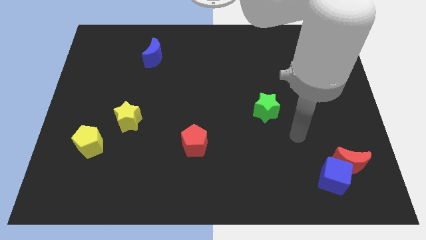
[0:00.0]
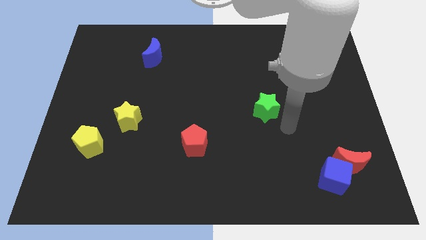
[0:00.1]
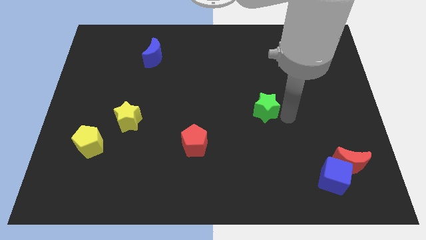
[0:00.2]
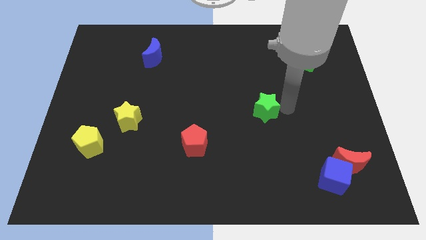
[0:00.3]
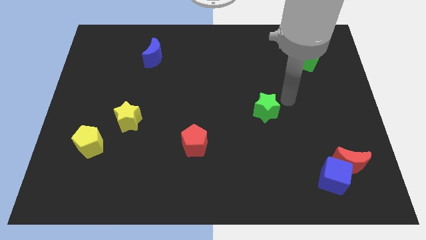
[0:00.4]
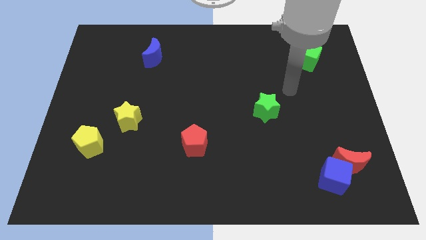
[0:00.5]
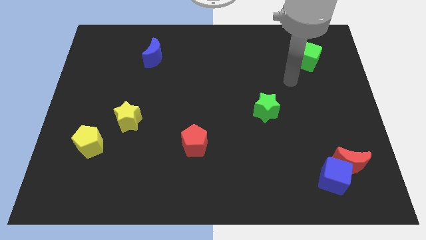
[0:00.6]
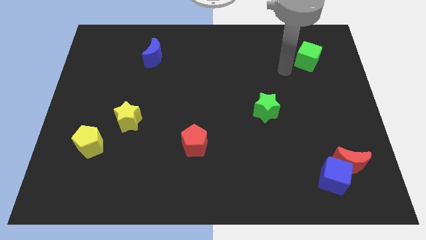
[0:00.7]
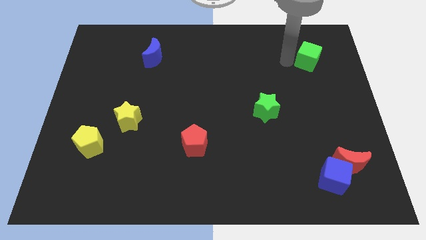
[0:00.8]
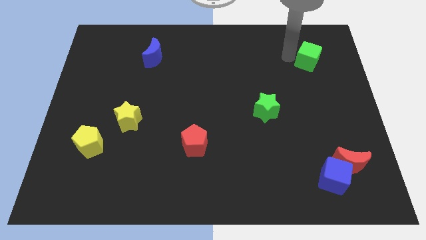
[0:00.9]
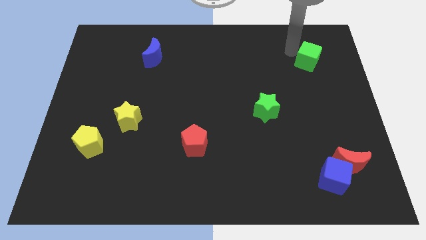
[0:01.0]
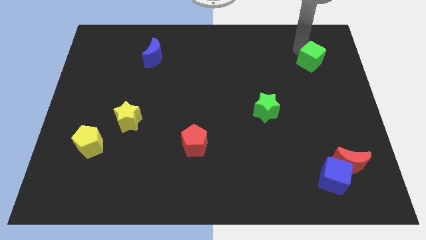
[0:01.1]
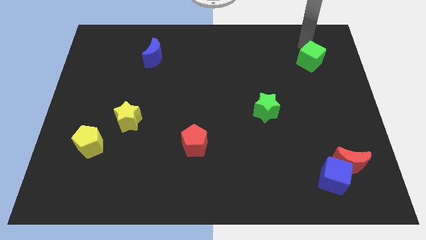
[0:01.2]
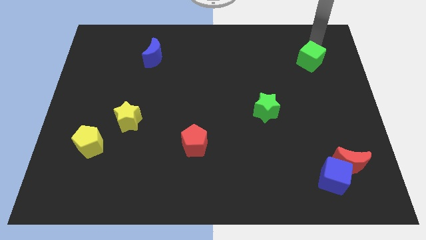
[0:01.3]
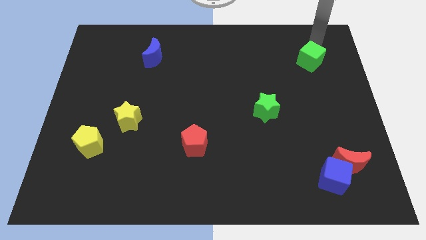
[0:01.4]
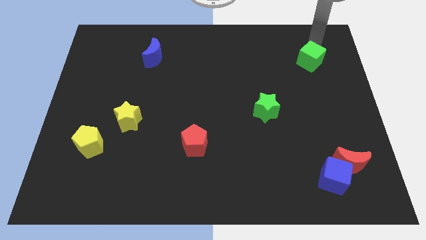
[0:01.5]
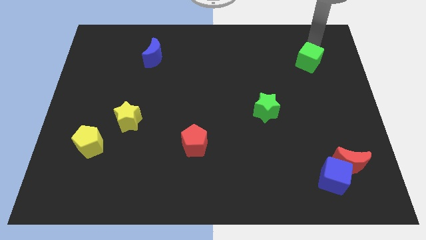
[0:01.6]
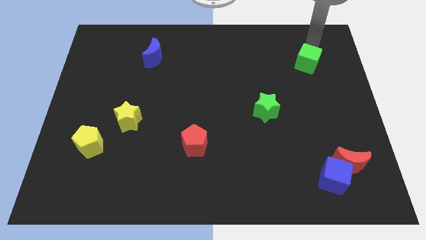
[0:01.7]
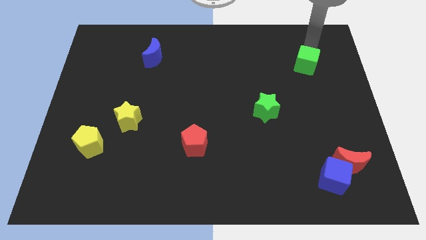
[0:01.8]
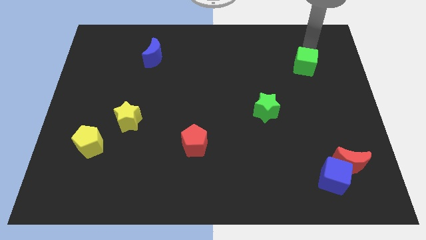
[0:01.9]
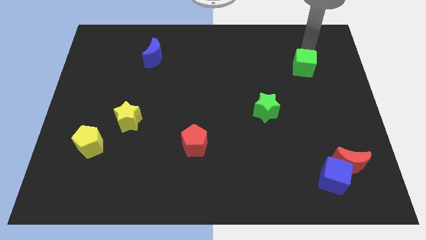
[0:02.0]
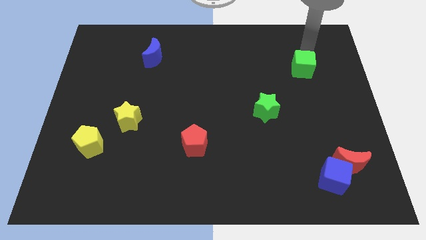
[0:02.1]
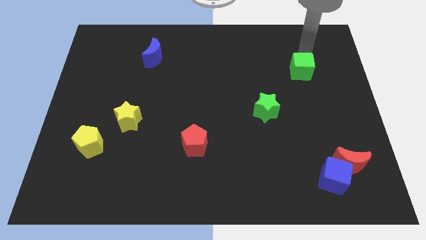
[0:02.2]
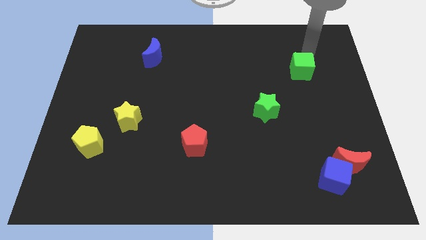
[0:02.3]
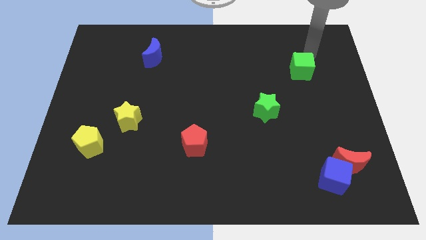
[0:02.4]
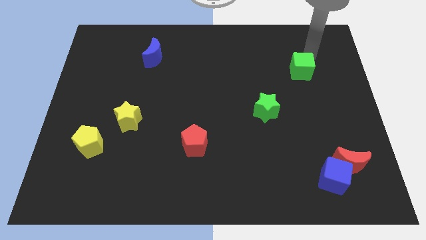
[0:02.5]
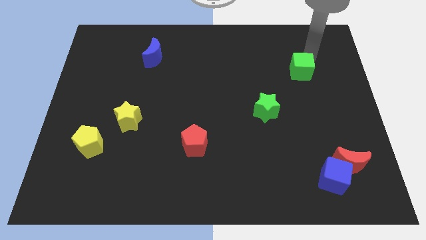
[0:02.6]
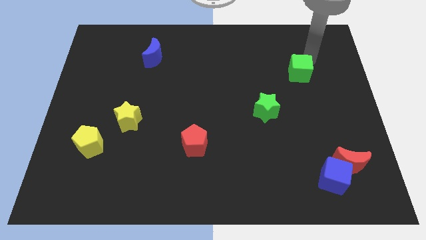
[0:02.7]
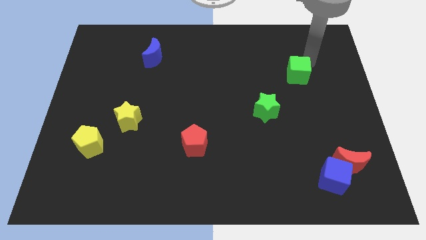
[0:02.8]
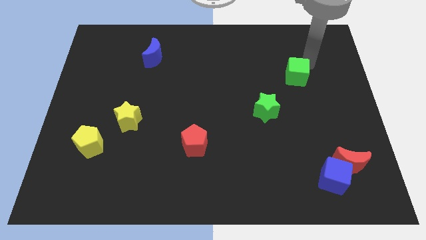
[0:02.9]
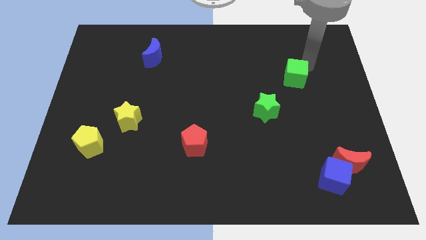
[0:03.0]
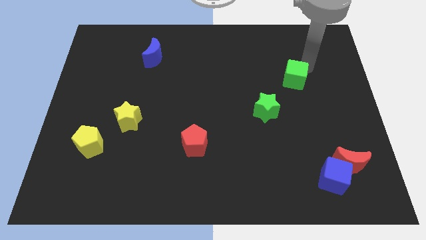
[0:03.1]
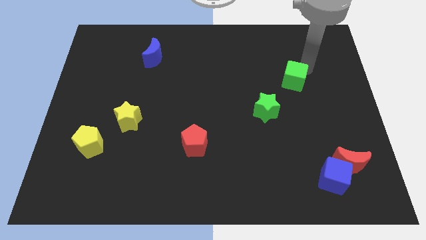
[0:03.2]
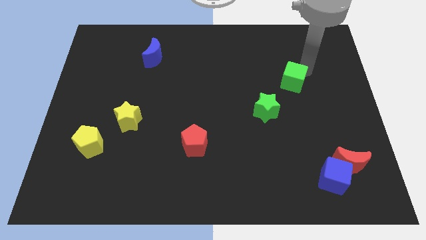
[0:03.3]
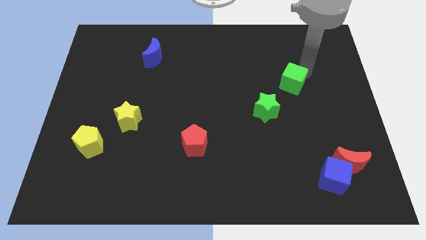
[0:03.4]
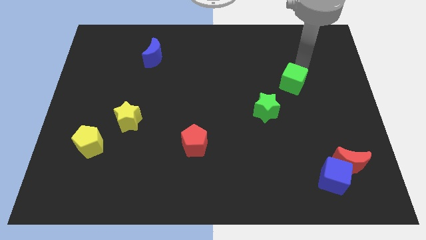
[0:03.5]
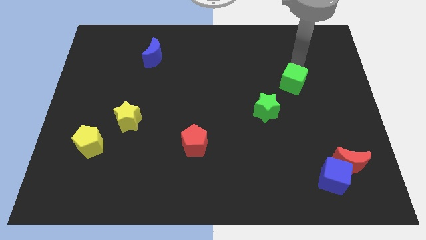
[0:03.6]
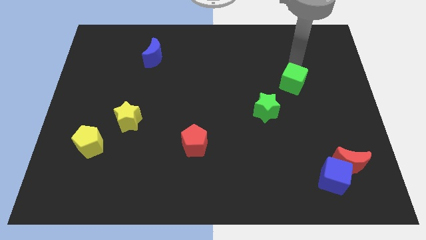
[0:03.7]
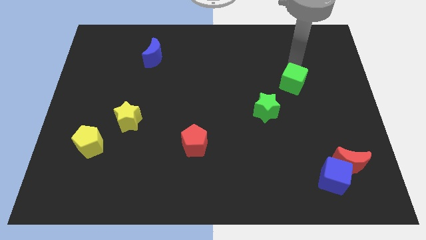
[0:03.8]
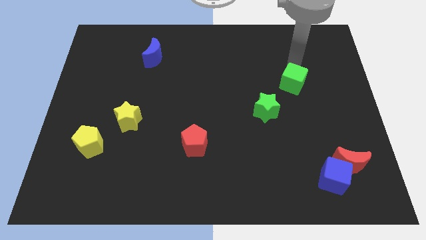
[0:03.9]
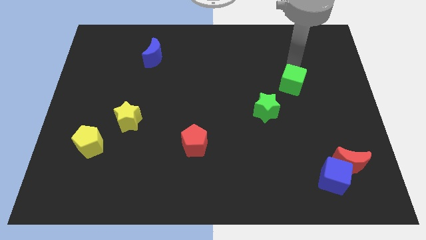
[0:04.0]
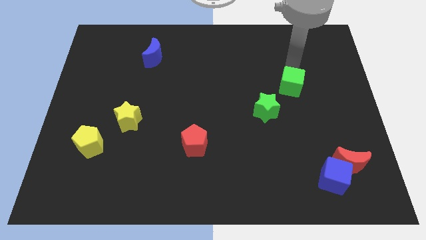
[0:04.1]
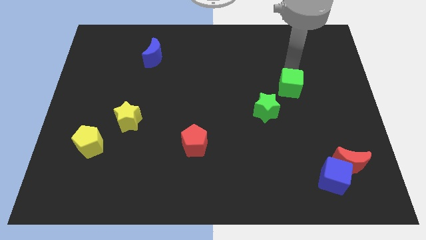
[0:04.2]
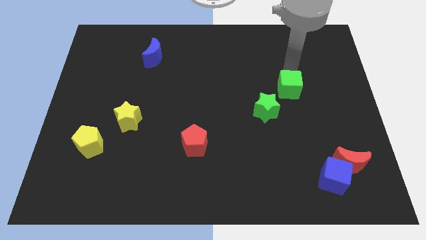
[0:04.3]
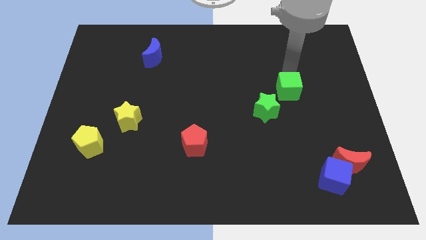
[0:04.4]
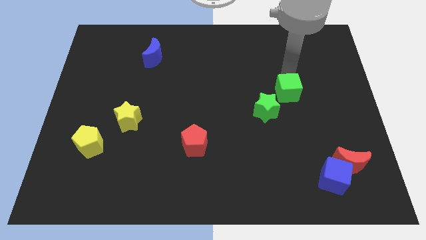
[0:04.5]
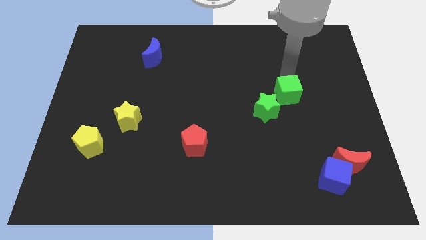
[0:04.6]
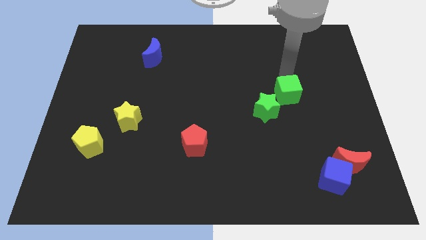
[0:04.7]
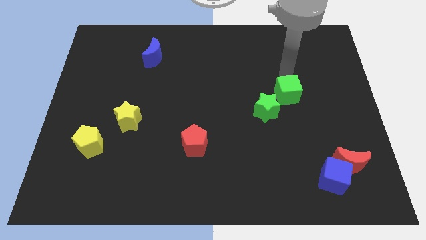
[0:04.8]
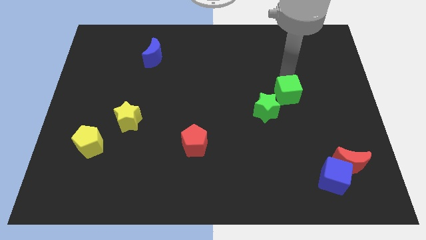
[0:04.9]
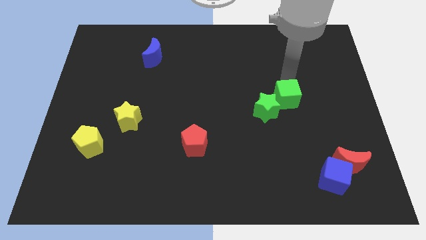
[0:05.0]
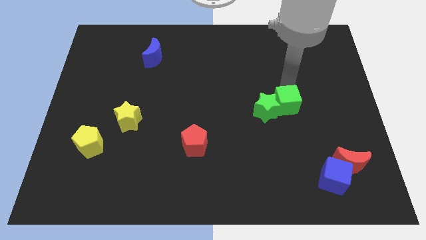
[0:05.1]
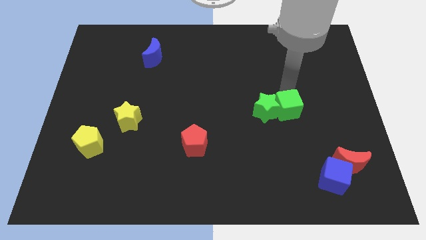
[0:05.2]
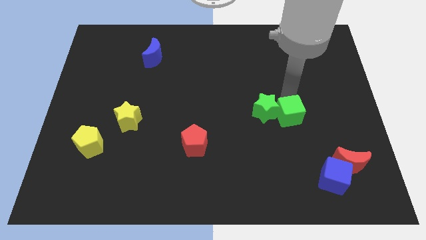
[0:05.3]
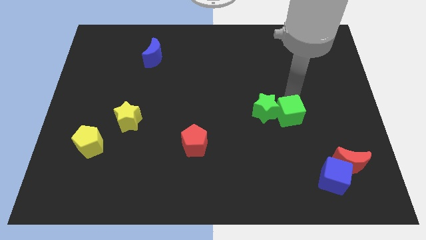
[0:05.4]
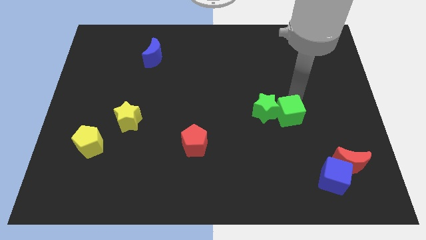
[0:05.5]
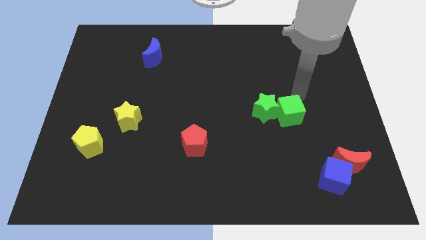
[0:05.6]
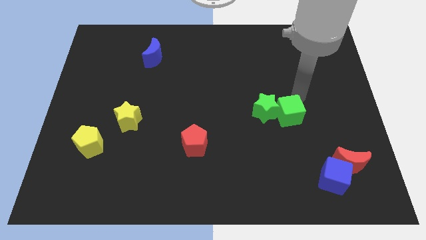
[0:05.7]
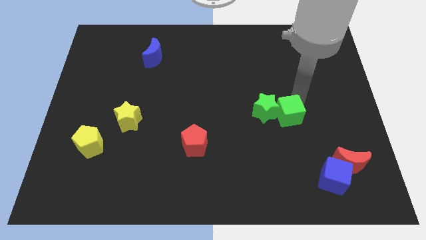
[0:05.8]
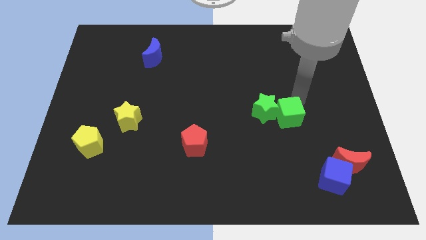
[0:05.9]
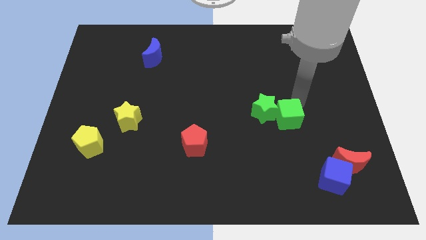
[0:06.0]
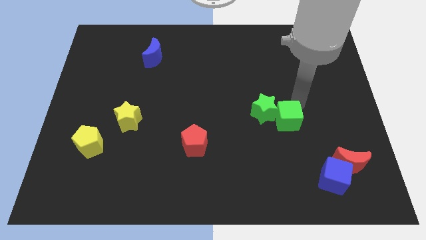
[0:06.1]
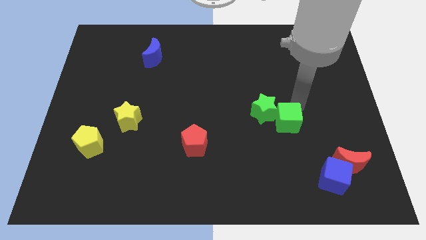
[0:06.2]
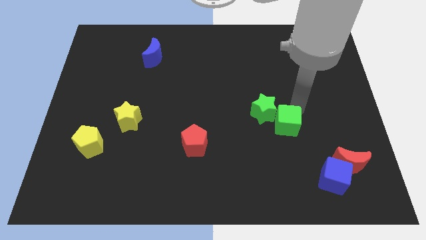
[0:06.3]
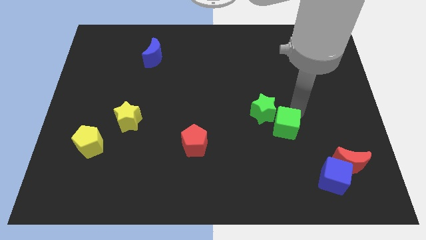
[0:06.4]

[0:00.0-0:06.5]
push the green cube to the bottom of the green star
